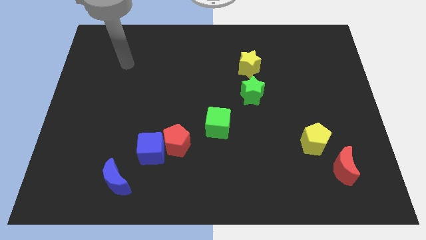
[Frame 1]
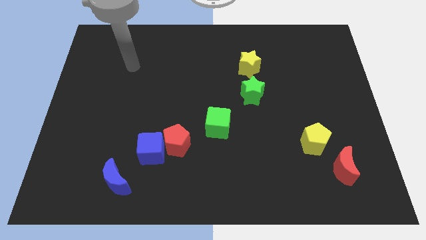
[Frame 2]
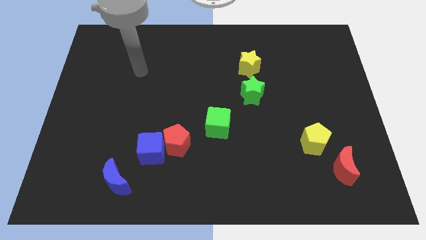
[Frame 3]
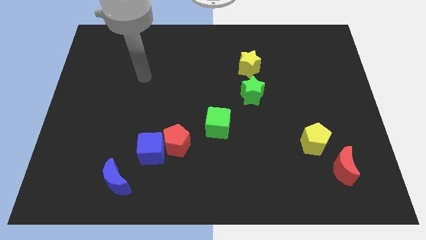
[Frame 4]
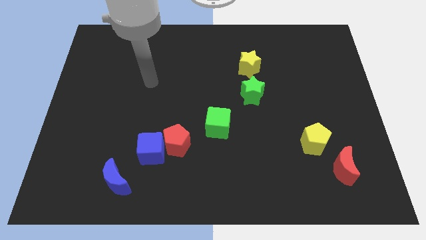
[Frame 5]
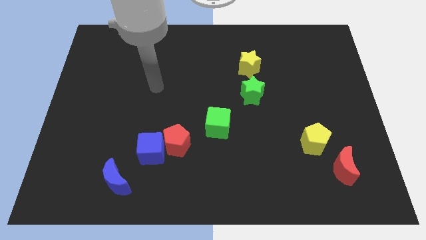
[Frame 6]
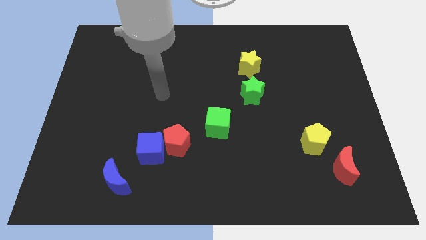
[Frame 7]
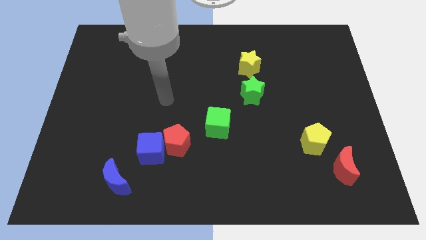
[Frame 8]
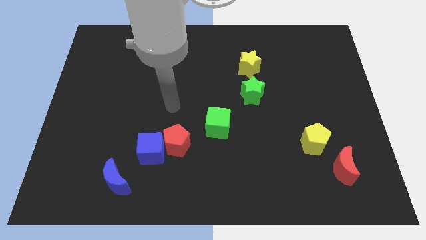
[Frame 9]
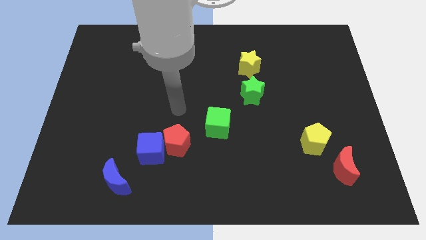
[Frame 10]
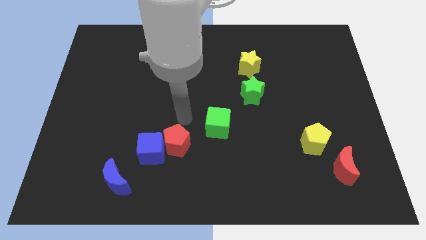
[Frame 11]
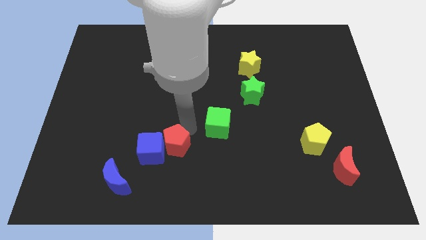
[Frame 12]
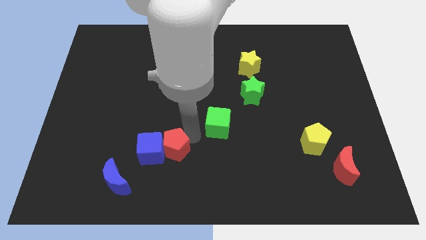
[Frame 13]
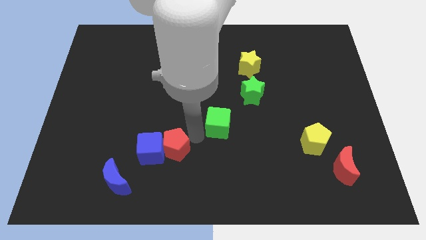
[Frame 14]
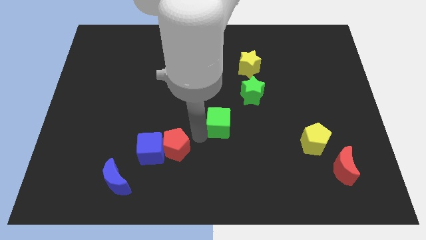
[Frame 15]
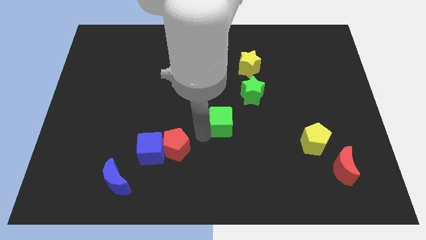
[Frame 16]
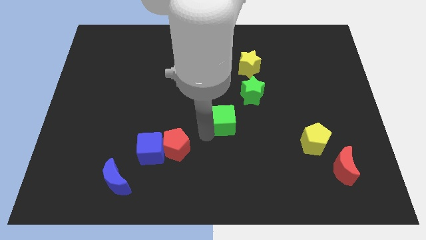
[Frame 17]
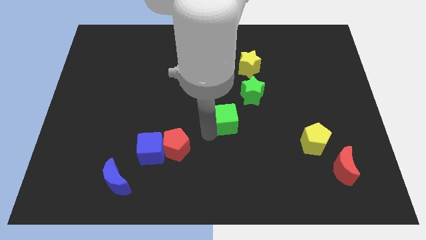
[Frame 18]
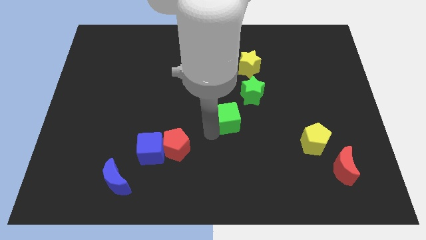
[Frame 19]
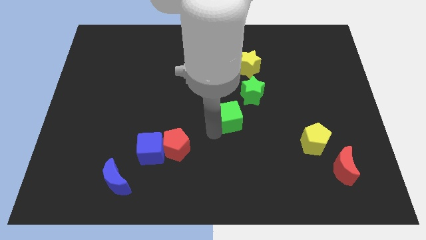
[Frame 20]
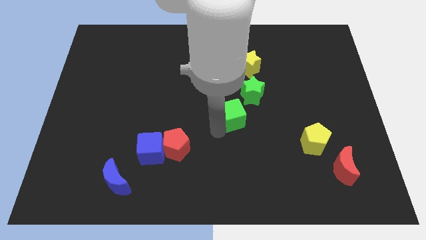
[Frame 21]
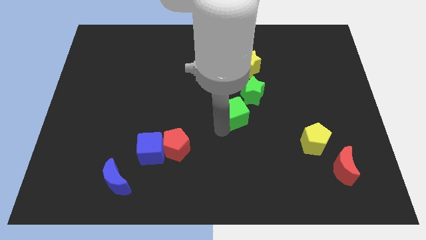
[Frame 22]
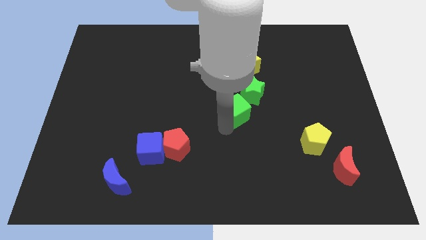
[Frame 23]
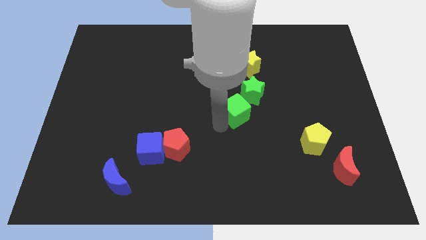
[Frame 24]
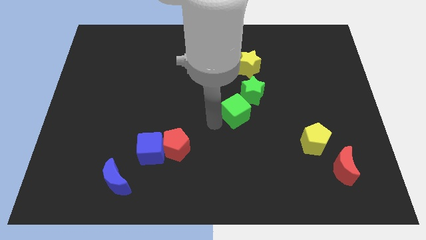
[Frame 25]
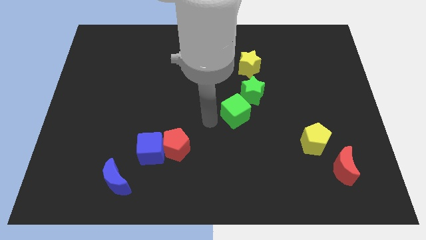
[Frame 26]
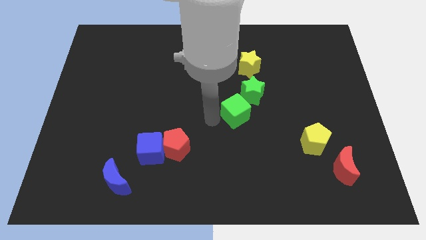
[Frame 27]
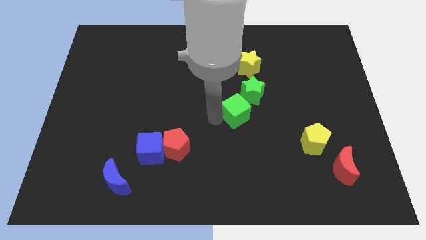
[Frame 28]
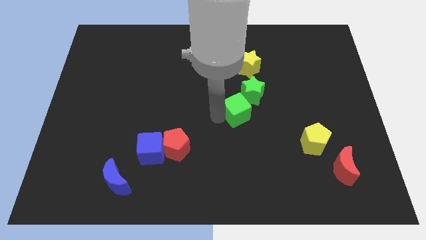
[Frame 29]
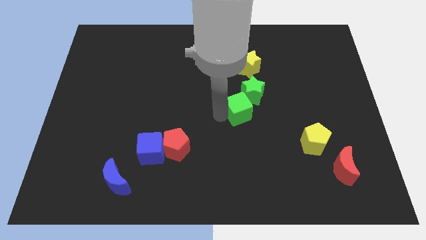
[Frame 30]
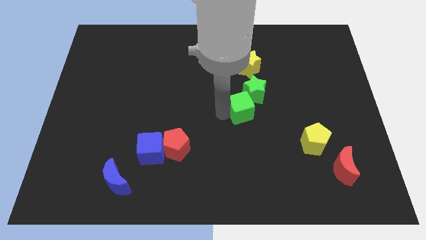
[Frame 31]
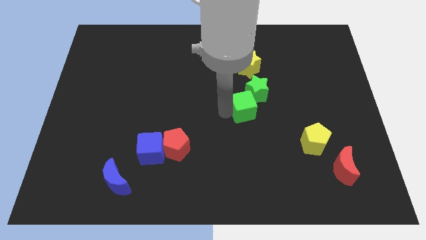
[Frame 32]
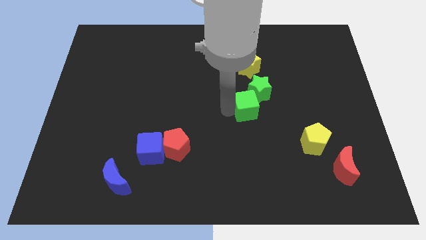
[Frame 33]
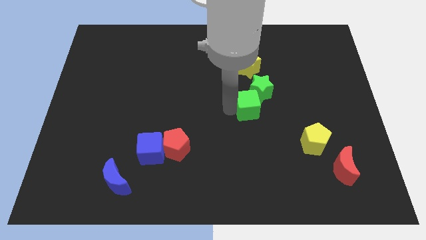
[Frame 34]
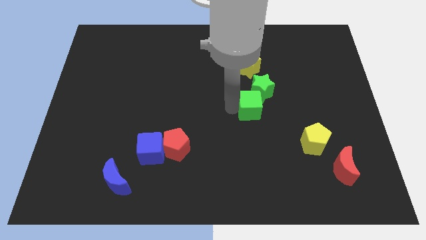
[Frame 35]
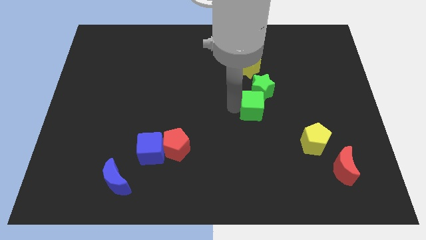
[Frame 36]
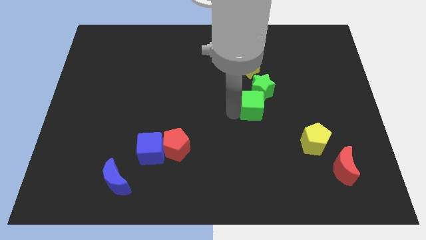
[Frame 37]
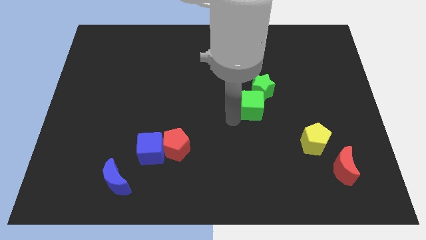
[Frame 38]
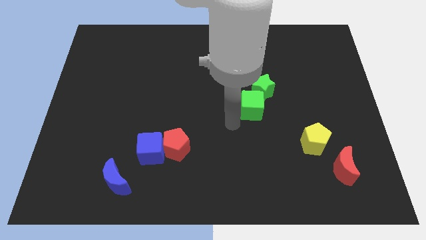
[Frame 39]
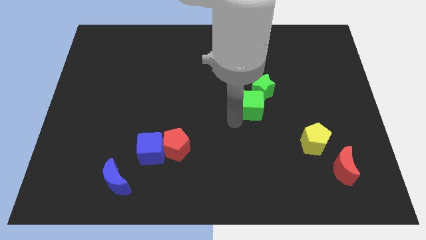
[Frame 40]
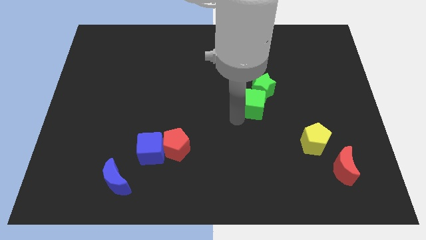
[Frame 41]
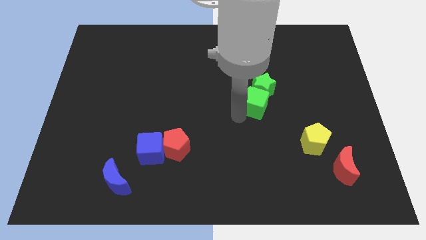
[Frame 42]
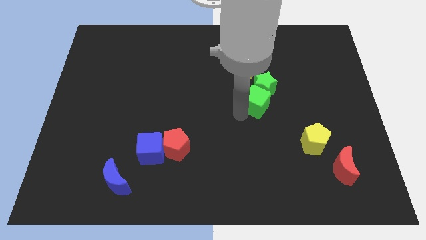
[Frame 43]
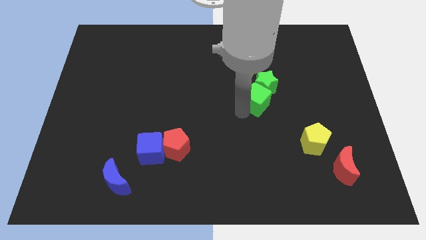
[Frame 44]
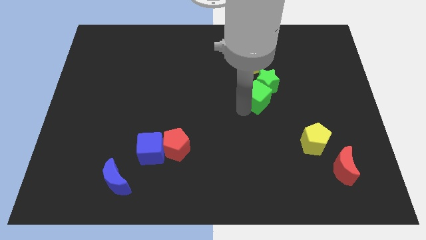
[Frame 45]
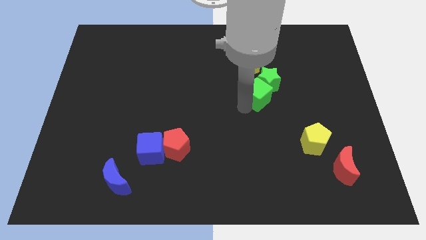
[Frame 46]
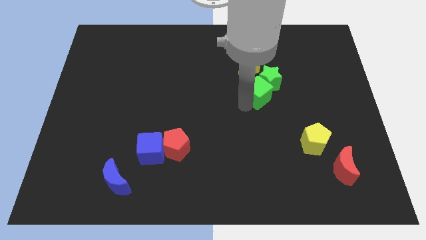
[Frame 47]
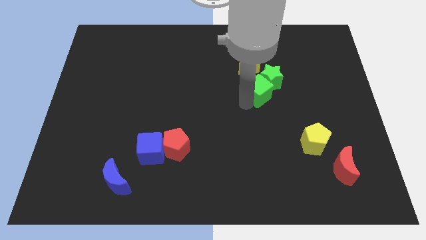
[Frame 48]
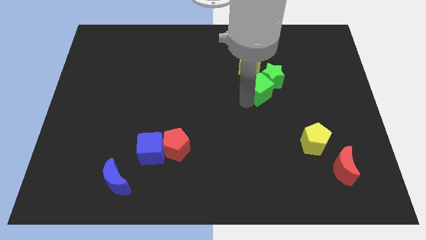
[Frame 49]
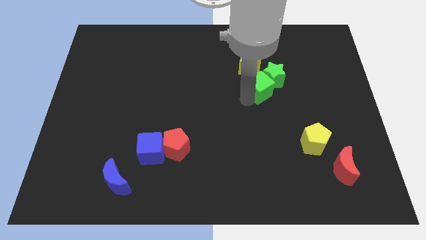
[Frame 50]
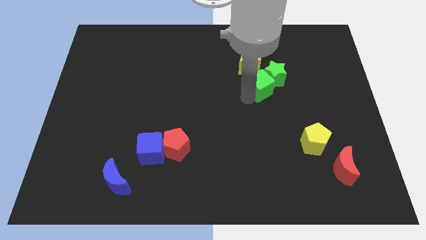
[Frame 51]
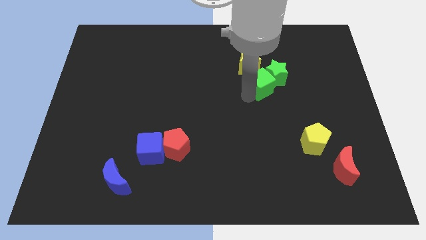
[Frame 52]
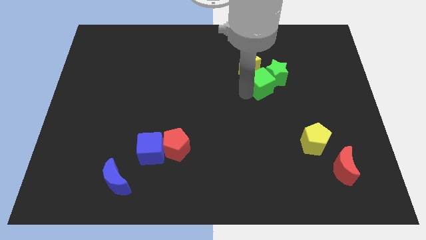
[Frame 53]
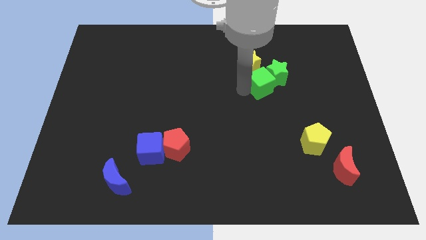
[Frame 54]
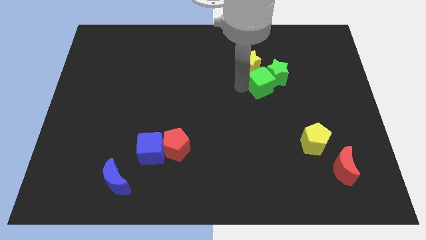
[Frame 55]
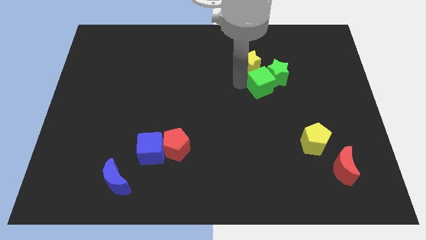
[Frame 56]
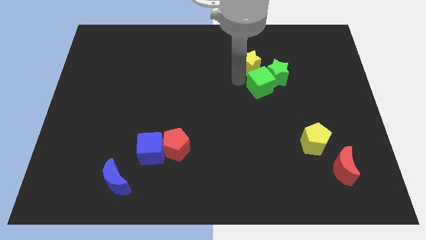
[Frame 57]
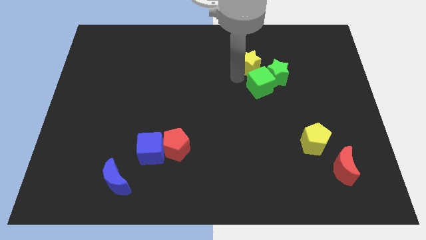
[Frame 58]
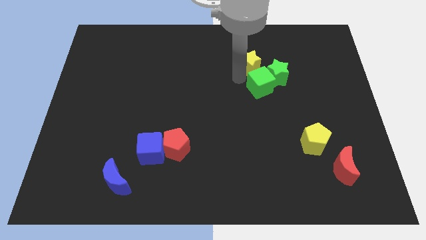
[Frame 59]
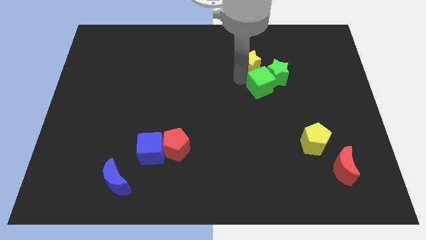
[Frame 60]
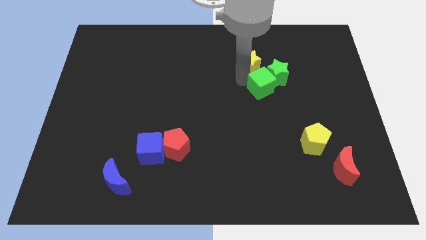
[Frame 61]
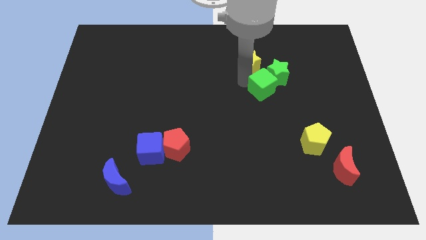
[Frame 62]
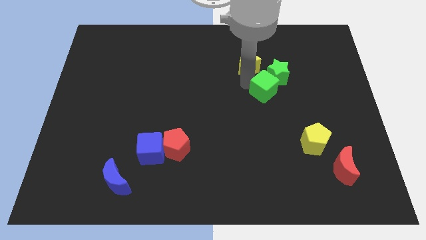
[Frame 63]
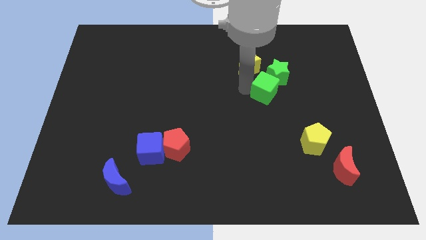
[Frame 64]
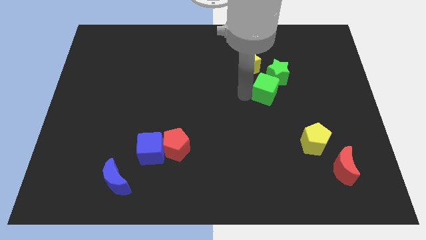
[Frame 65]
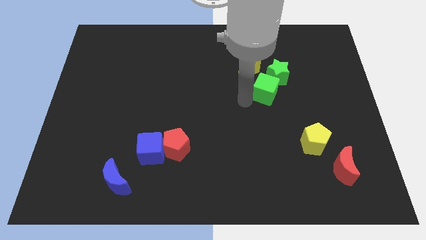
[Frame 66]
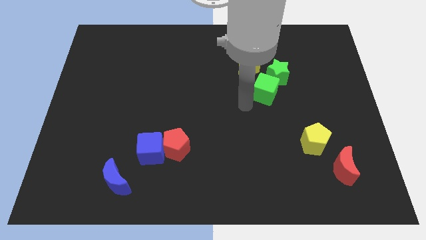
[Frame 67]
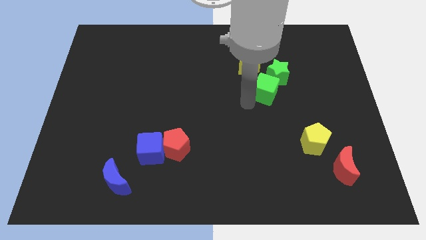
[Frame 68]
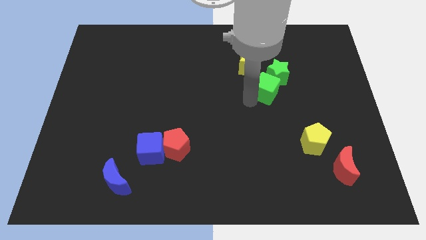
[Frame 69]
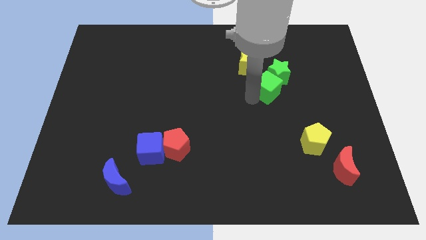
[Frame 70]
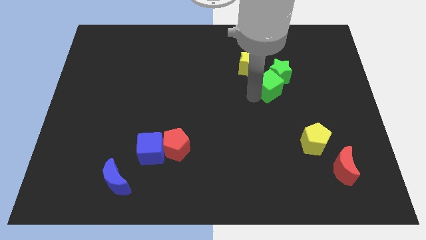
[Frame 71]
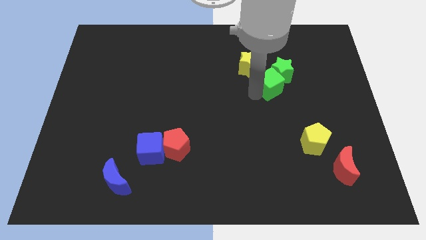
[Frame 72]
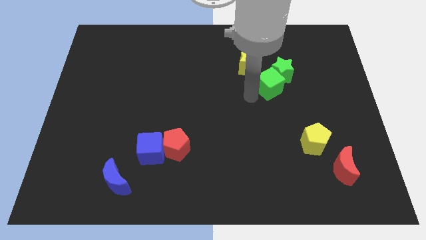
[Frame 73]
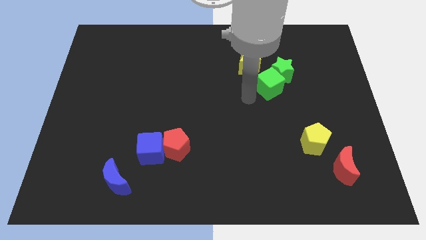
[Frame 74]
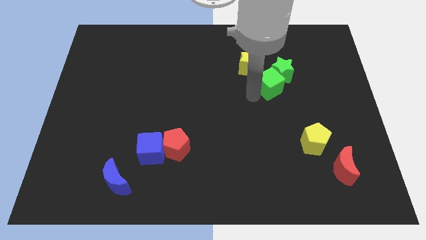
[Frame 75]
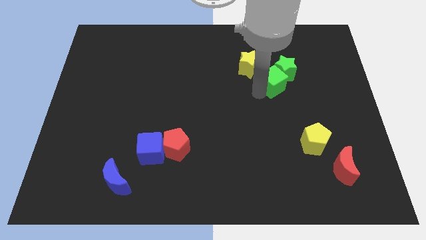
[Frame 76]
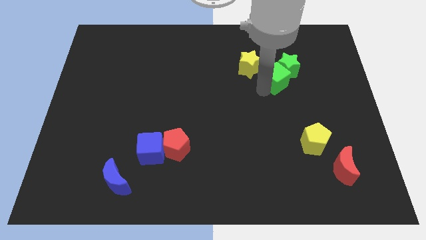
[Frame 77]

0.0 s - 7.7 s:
move the green cube up and then to the right
